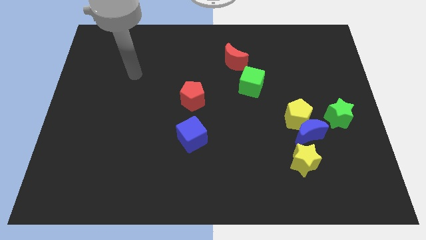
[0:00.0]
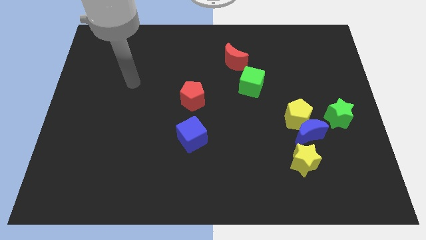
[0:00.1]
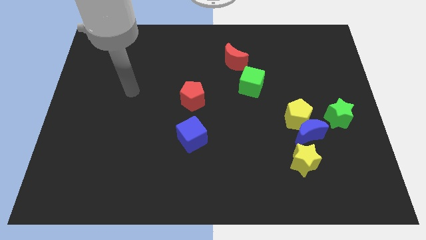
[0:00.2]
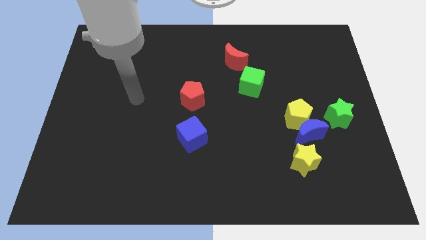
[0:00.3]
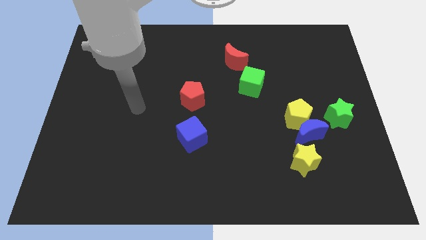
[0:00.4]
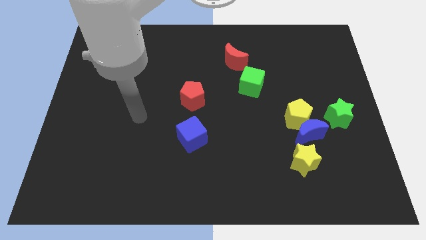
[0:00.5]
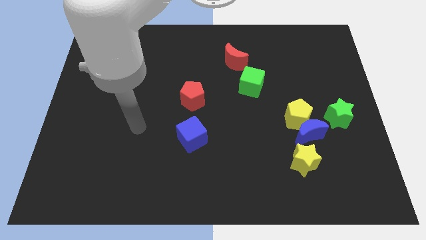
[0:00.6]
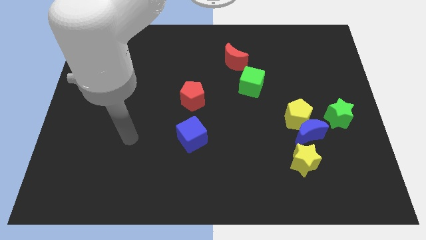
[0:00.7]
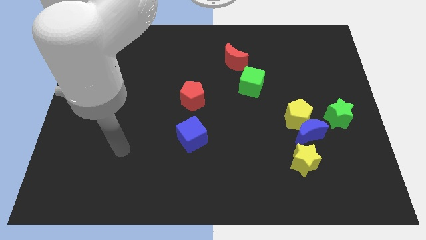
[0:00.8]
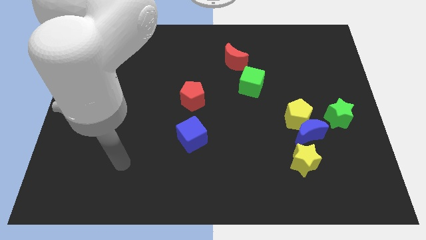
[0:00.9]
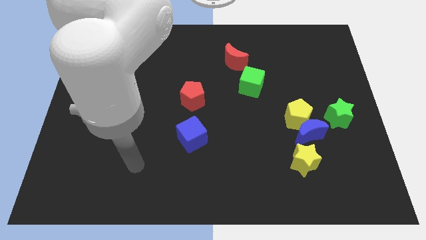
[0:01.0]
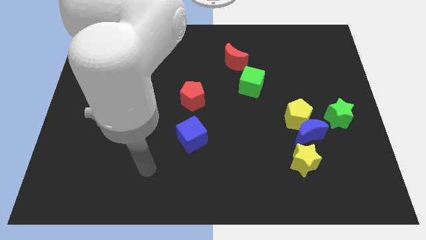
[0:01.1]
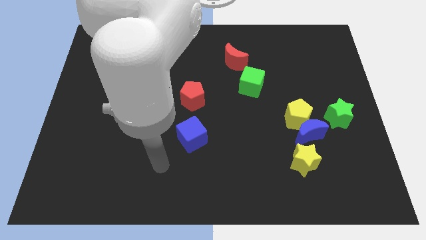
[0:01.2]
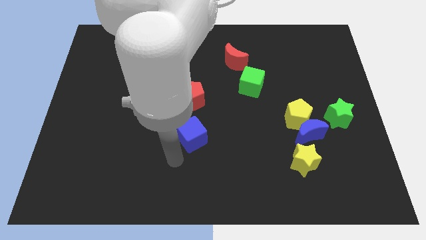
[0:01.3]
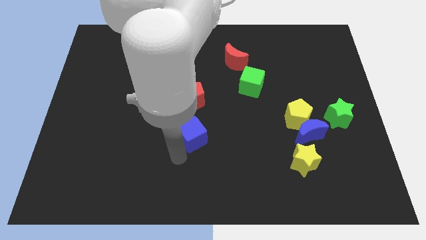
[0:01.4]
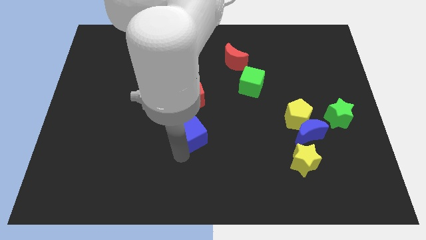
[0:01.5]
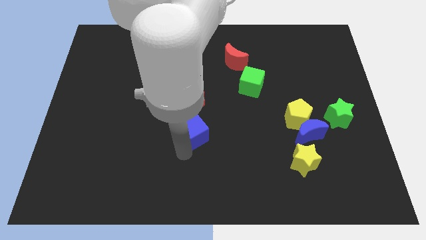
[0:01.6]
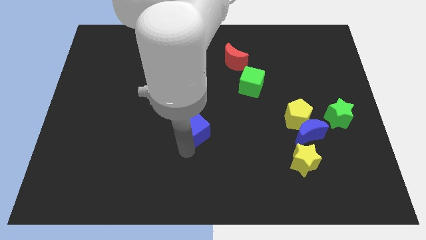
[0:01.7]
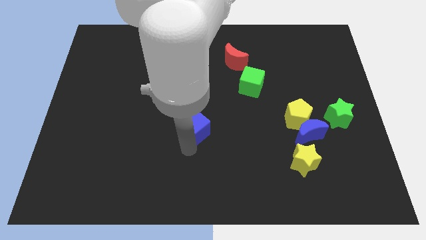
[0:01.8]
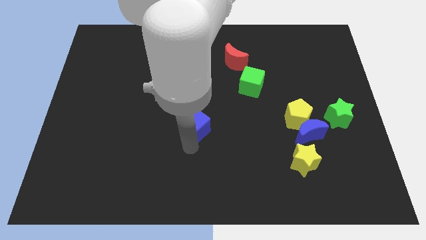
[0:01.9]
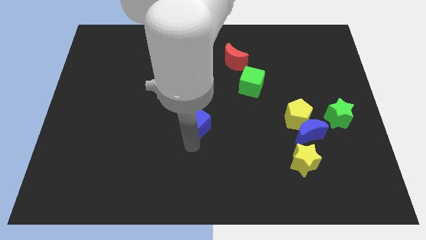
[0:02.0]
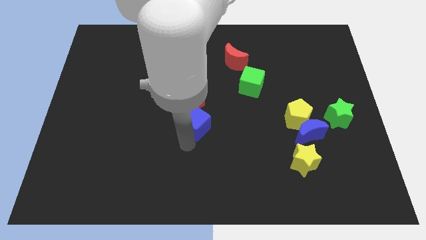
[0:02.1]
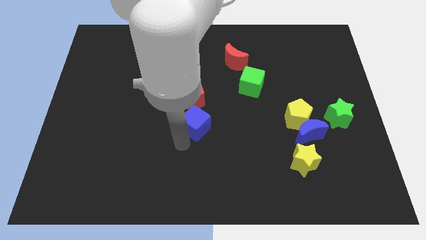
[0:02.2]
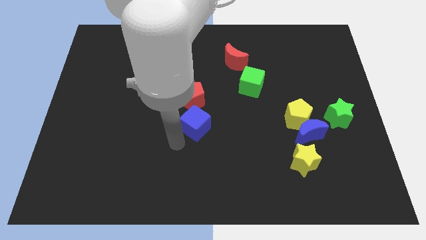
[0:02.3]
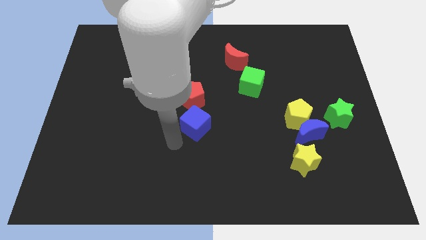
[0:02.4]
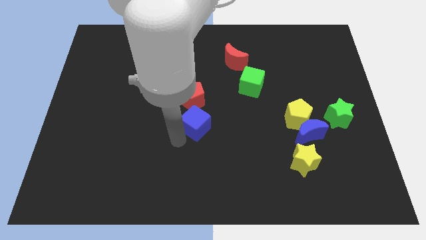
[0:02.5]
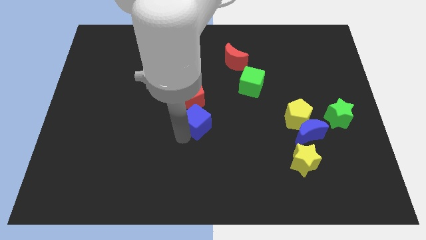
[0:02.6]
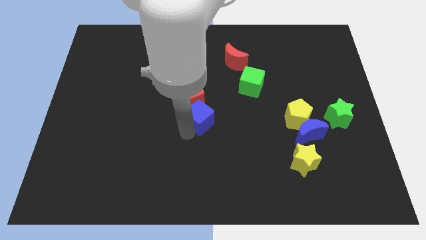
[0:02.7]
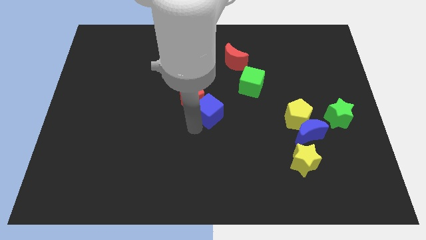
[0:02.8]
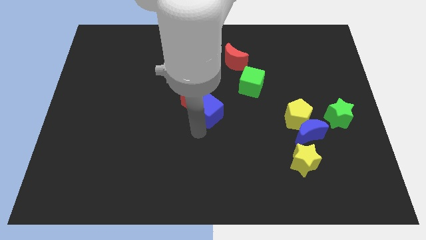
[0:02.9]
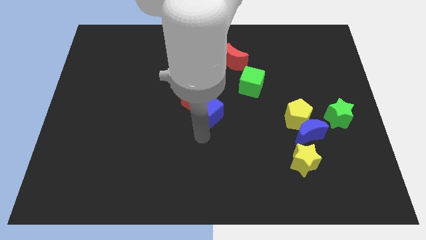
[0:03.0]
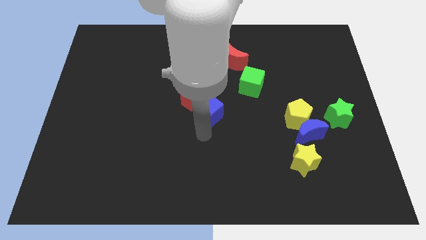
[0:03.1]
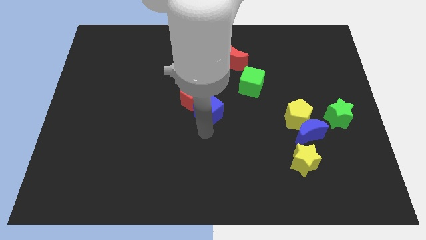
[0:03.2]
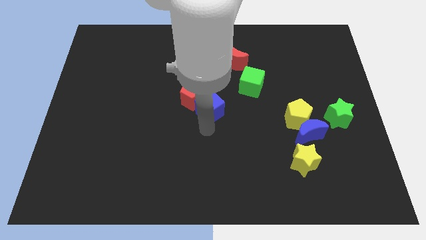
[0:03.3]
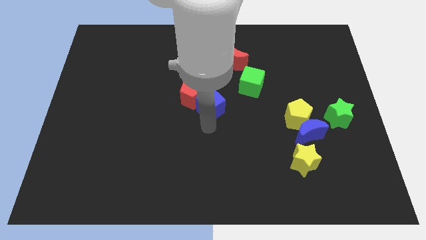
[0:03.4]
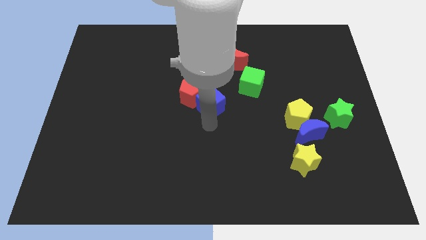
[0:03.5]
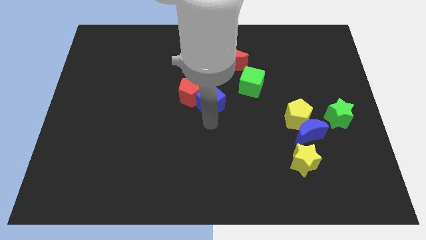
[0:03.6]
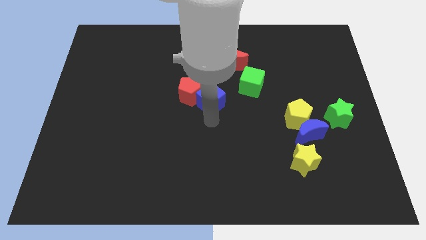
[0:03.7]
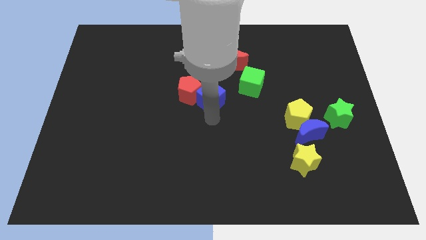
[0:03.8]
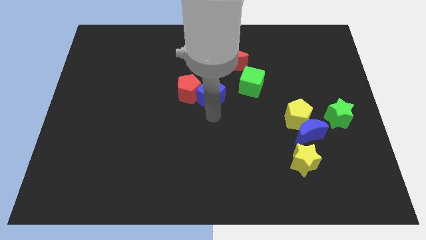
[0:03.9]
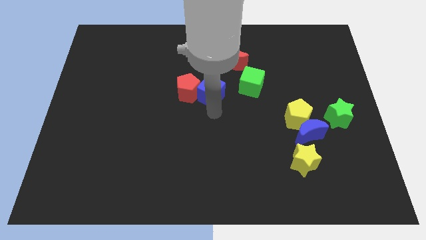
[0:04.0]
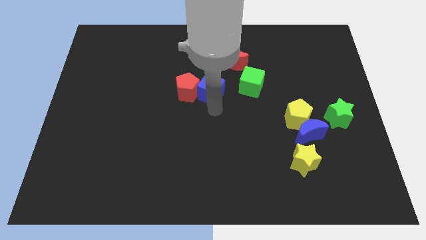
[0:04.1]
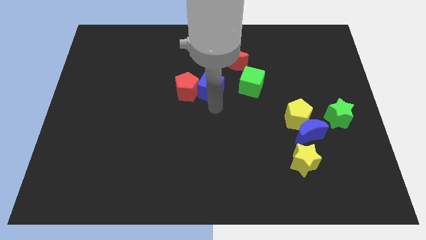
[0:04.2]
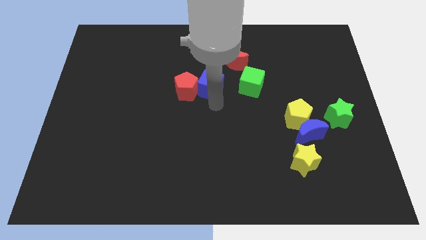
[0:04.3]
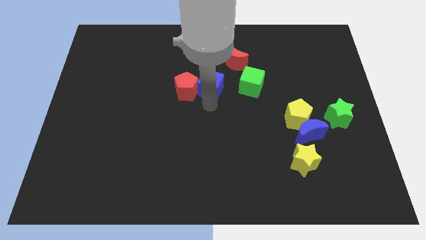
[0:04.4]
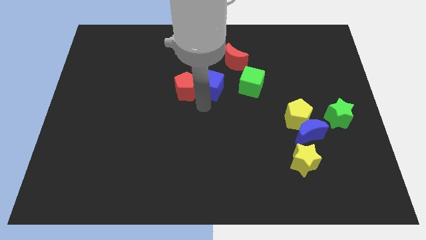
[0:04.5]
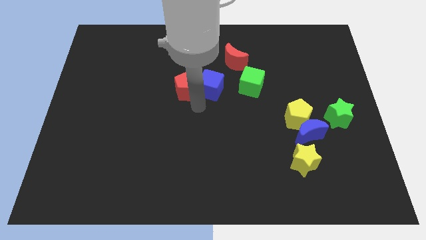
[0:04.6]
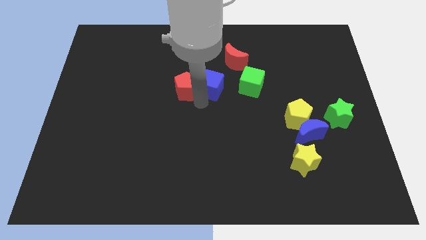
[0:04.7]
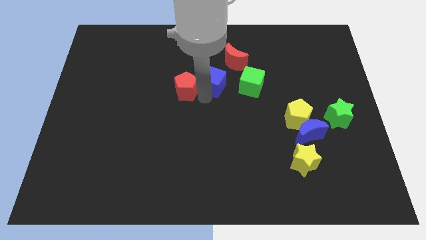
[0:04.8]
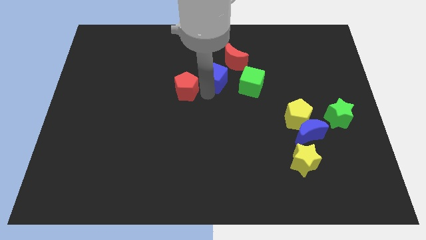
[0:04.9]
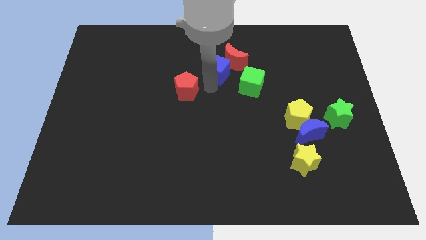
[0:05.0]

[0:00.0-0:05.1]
put the blue cube to the red moon

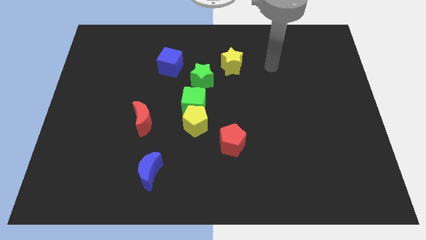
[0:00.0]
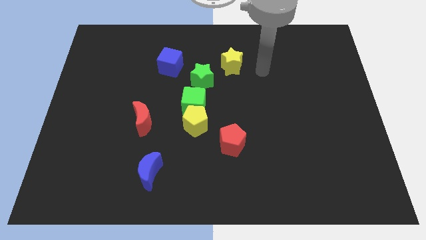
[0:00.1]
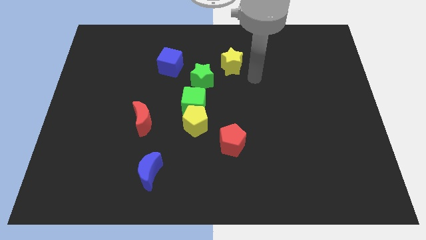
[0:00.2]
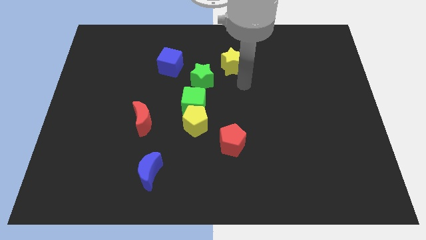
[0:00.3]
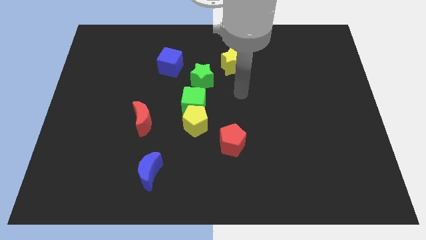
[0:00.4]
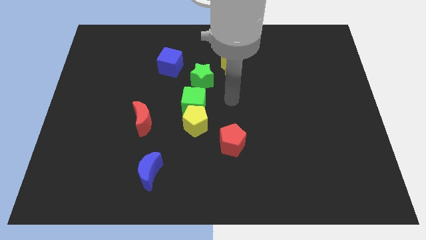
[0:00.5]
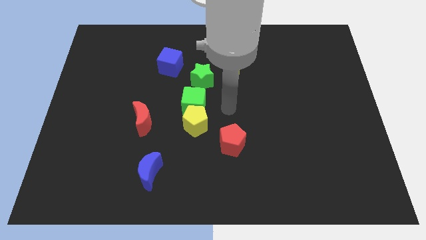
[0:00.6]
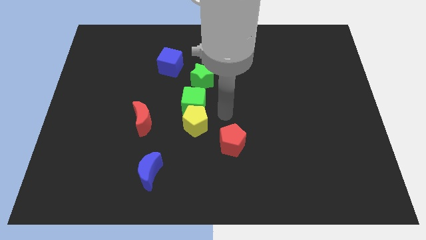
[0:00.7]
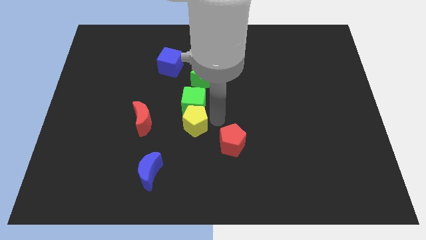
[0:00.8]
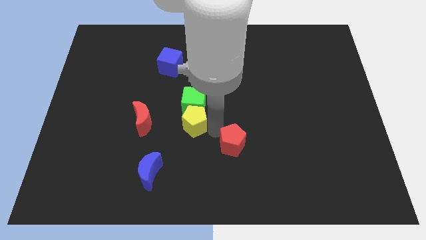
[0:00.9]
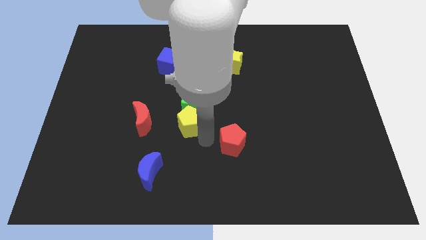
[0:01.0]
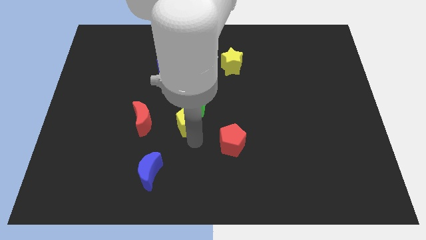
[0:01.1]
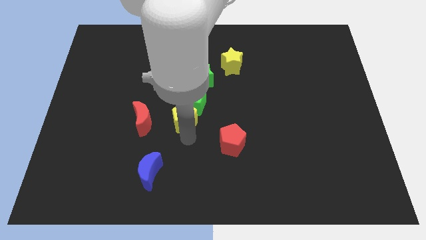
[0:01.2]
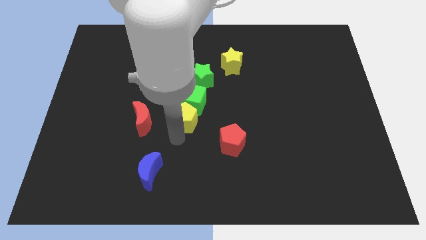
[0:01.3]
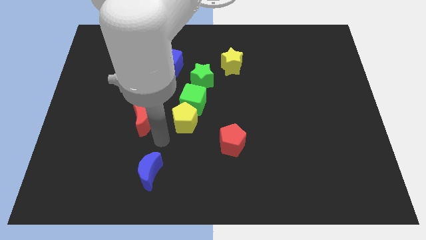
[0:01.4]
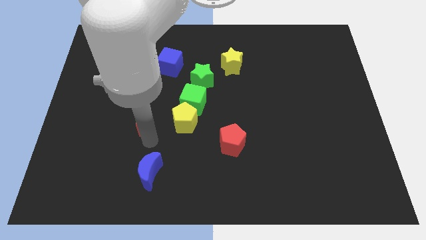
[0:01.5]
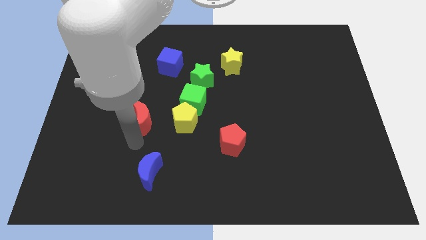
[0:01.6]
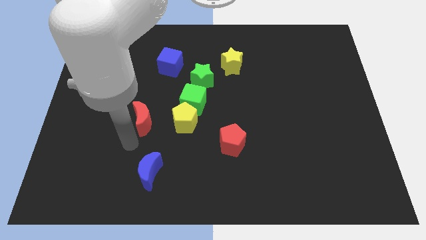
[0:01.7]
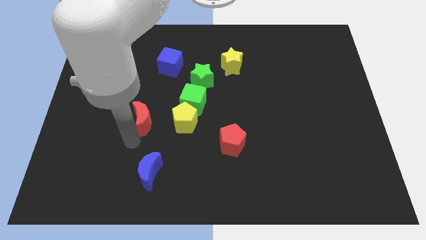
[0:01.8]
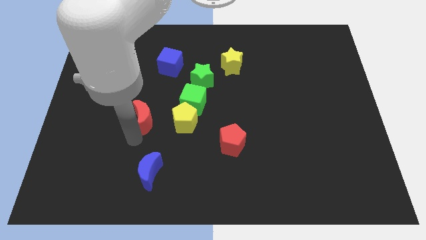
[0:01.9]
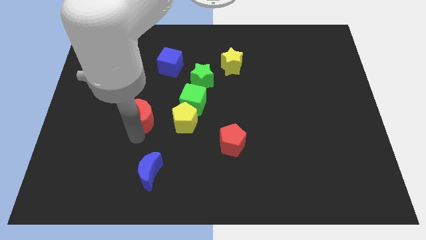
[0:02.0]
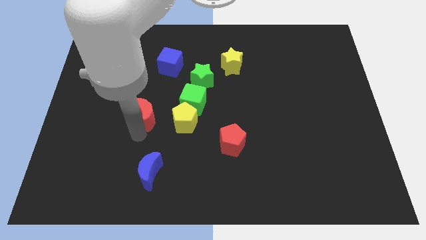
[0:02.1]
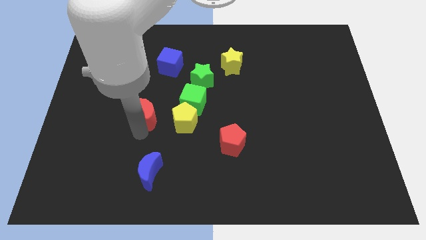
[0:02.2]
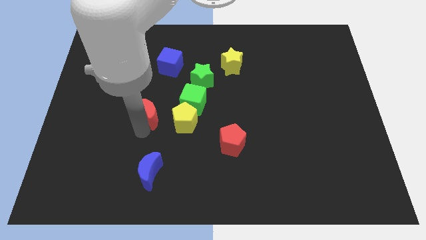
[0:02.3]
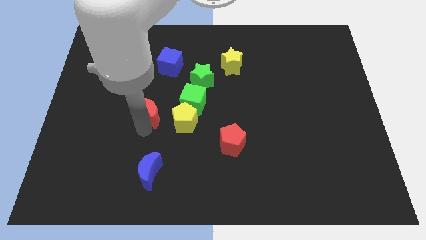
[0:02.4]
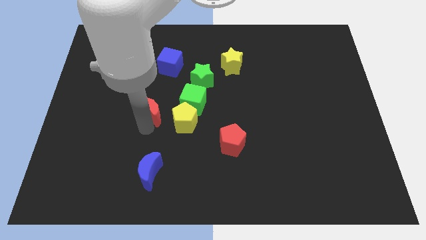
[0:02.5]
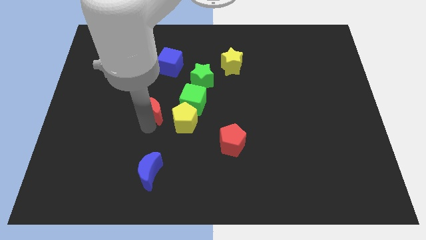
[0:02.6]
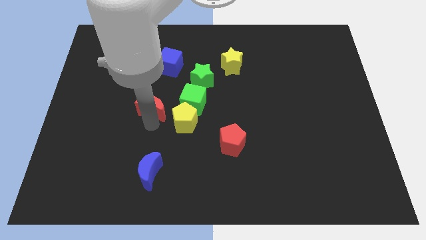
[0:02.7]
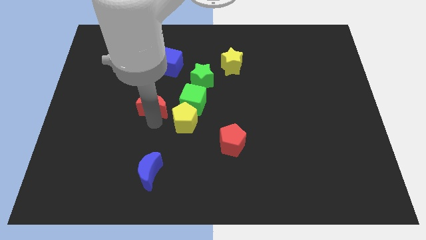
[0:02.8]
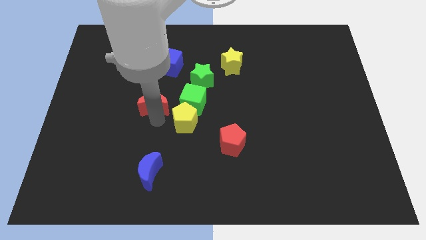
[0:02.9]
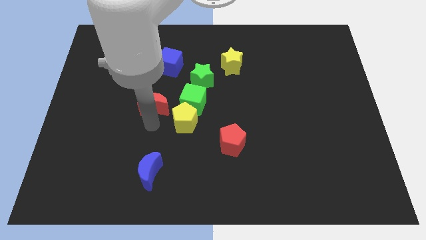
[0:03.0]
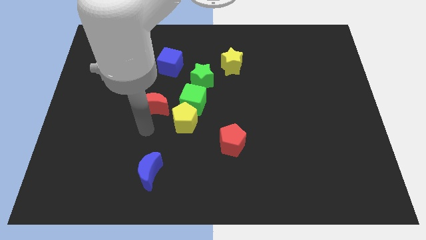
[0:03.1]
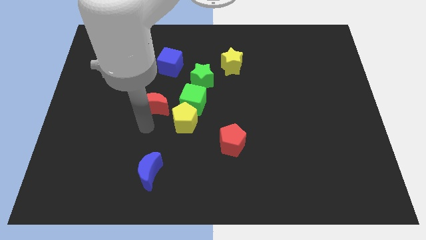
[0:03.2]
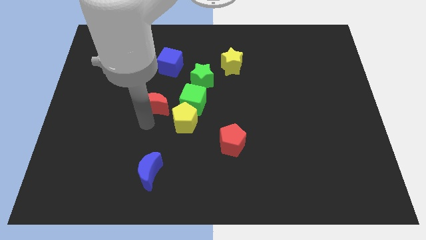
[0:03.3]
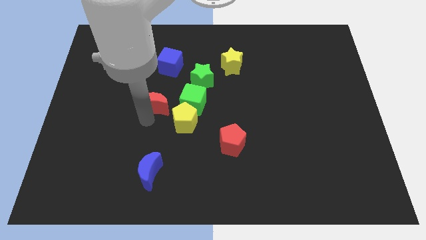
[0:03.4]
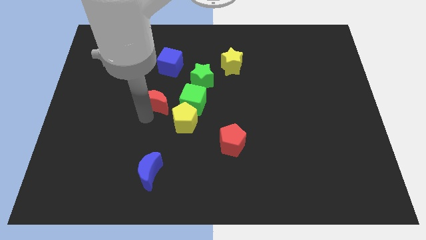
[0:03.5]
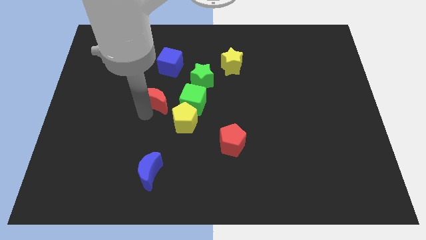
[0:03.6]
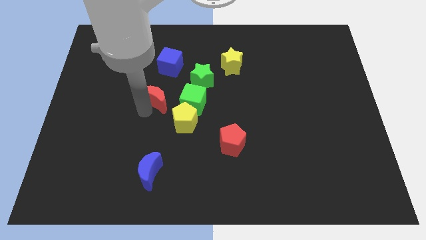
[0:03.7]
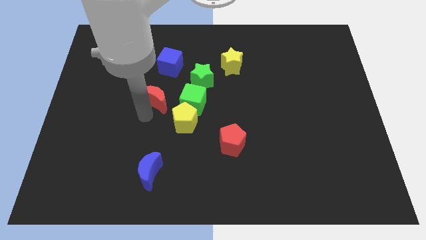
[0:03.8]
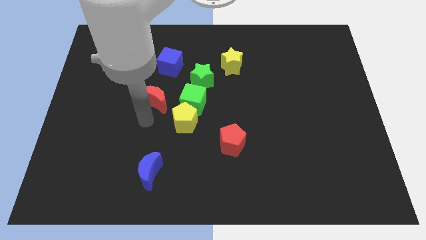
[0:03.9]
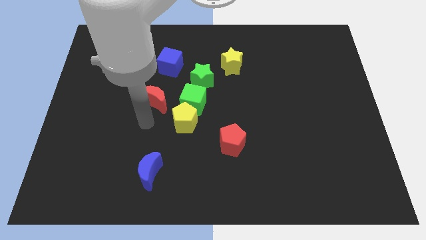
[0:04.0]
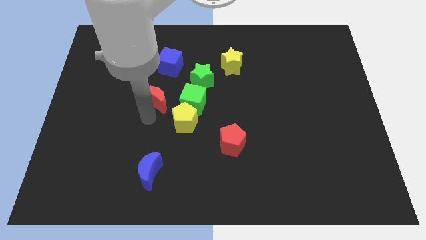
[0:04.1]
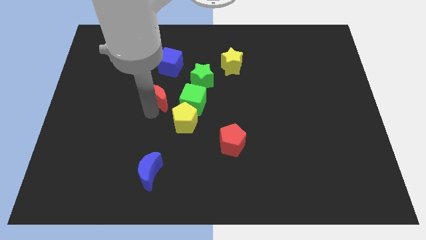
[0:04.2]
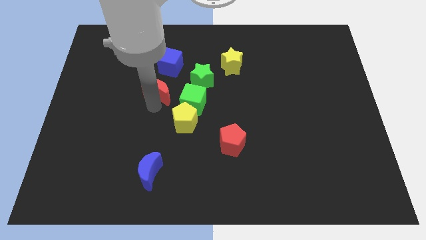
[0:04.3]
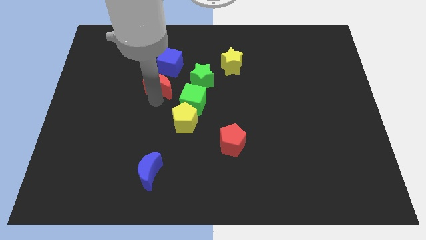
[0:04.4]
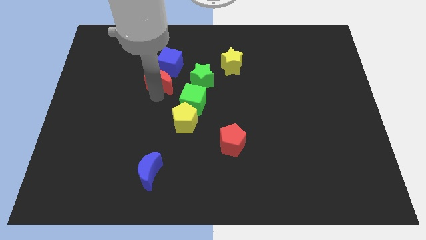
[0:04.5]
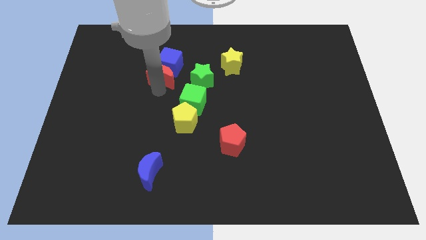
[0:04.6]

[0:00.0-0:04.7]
put the red moon next to the blue cube
